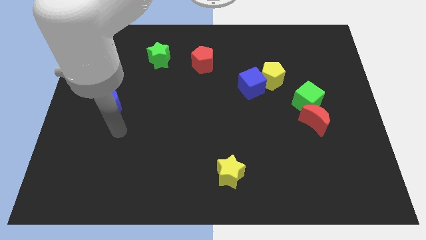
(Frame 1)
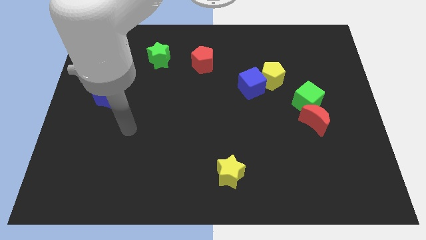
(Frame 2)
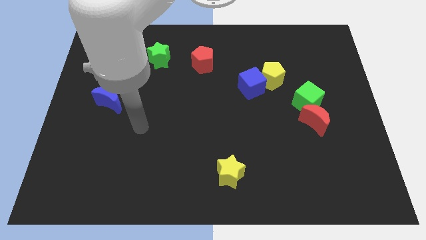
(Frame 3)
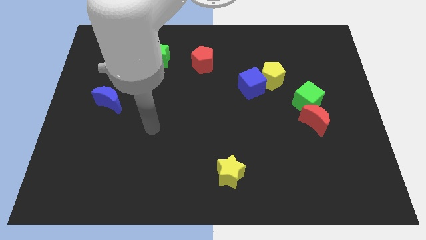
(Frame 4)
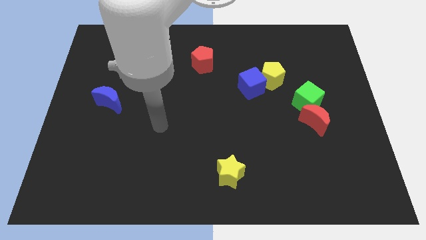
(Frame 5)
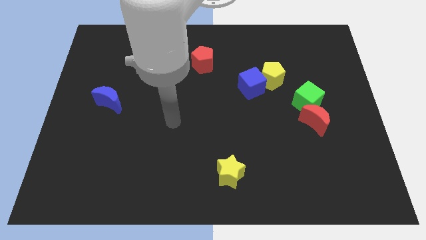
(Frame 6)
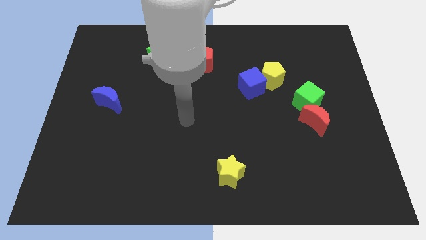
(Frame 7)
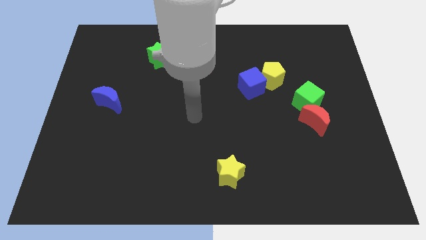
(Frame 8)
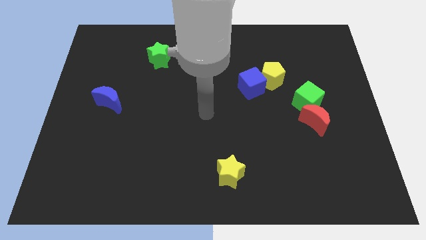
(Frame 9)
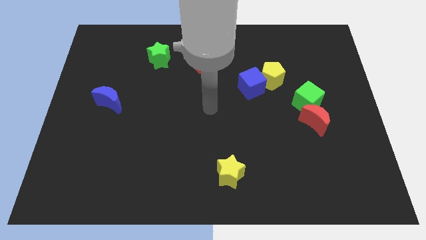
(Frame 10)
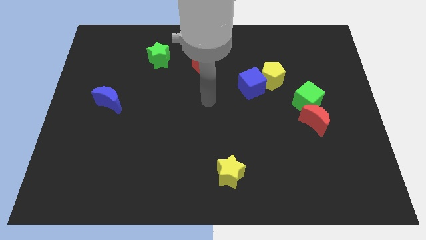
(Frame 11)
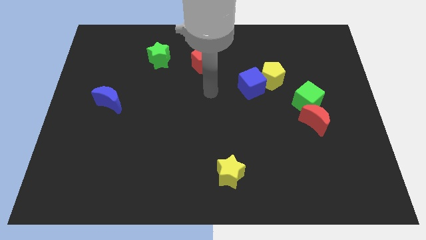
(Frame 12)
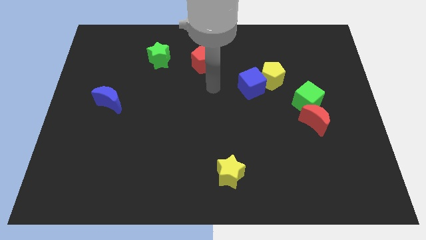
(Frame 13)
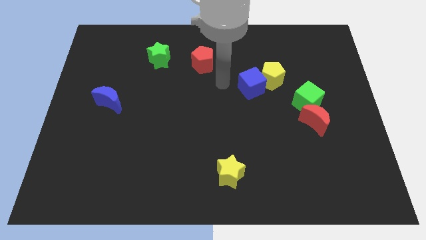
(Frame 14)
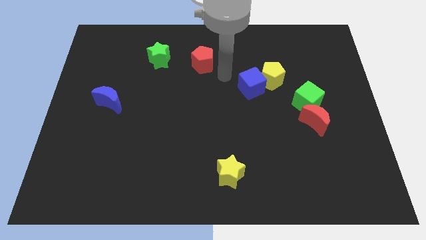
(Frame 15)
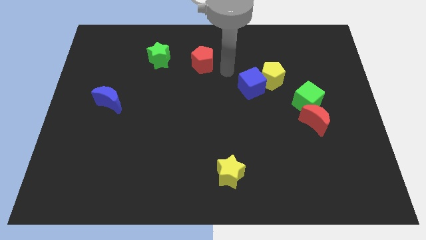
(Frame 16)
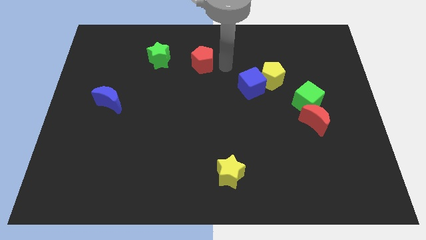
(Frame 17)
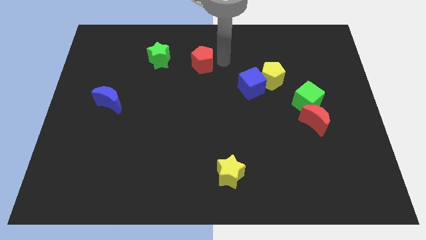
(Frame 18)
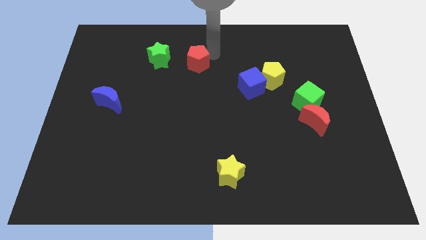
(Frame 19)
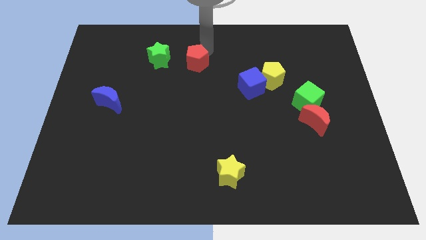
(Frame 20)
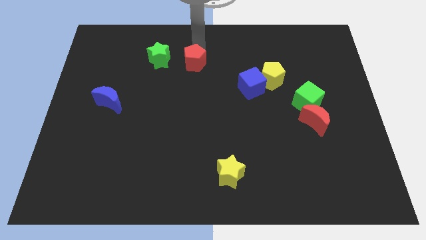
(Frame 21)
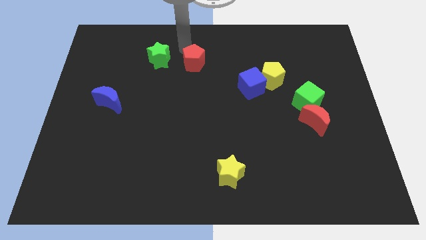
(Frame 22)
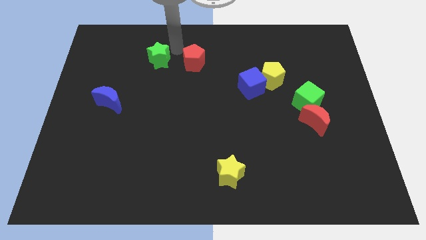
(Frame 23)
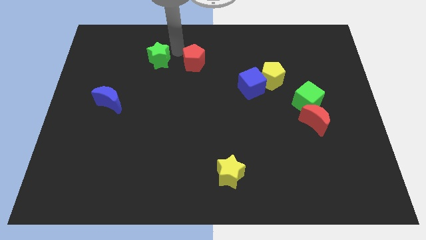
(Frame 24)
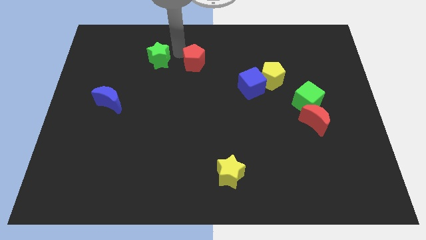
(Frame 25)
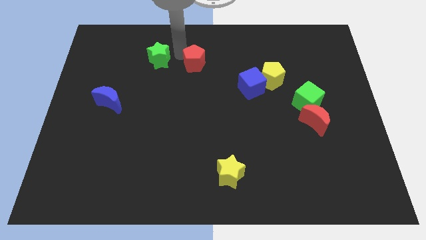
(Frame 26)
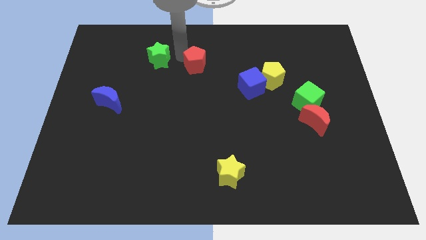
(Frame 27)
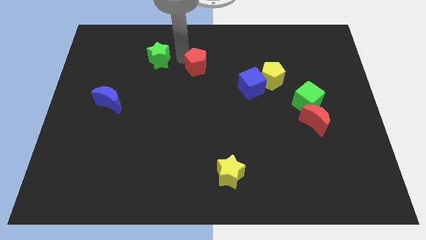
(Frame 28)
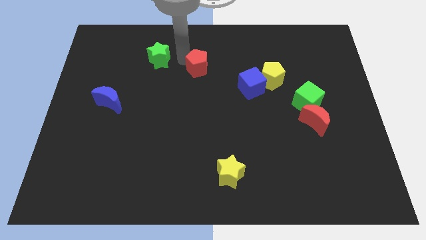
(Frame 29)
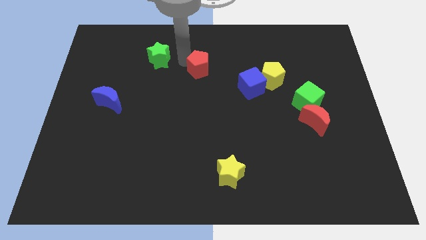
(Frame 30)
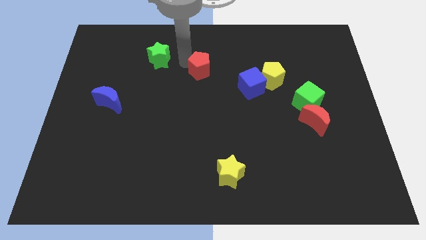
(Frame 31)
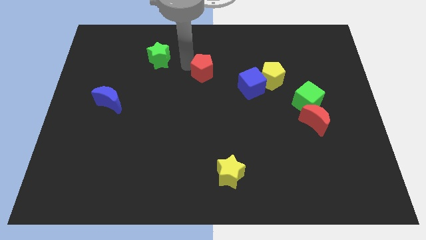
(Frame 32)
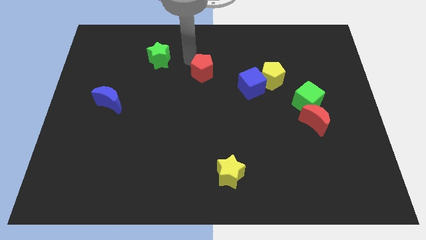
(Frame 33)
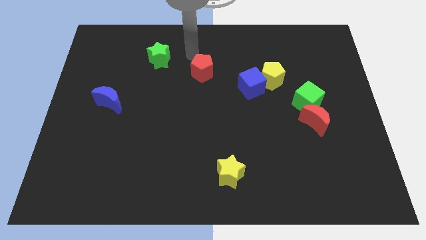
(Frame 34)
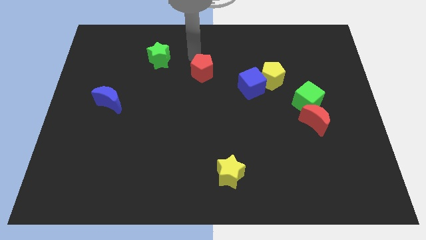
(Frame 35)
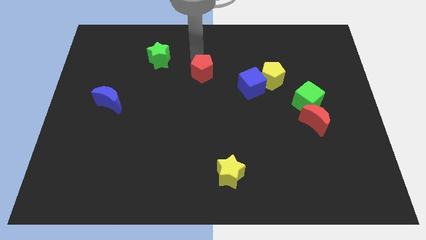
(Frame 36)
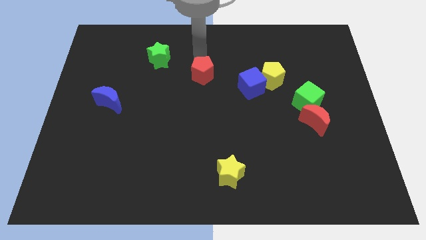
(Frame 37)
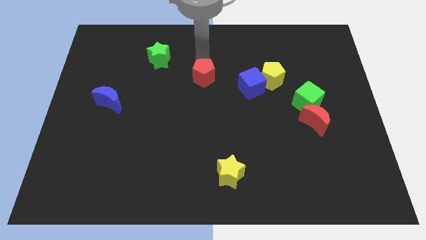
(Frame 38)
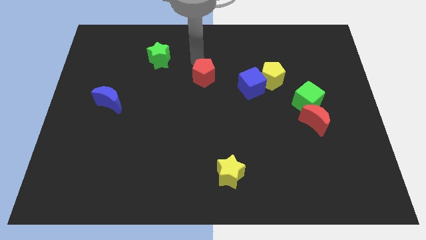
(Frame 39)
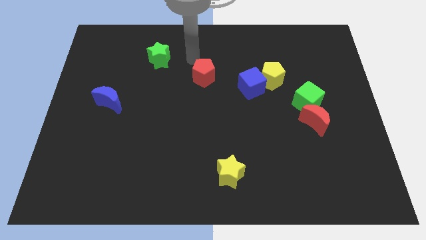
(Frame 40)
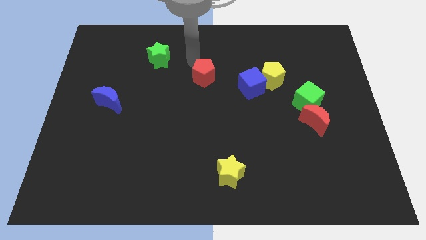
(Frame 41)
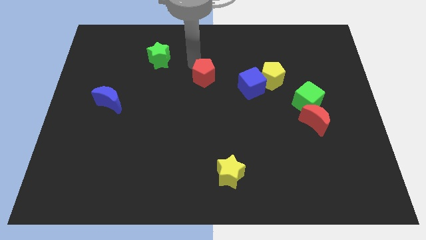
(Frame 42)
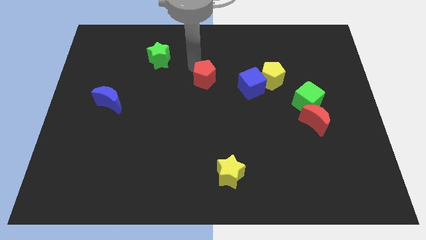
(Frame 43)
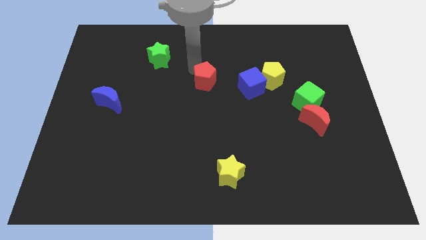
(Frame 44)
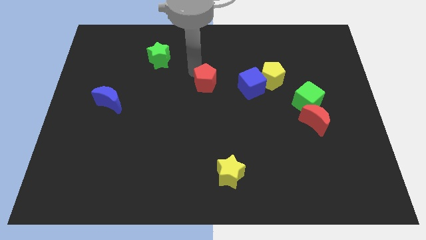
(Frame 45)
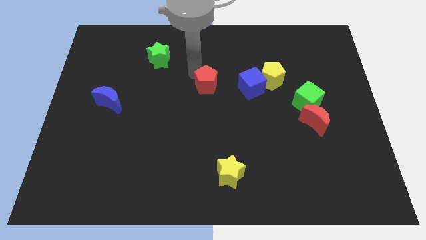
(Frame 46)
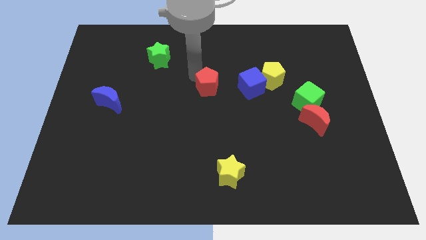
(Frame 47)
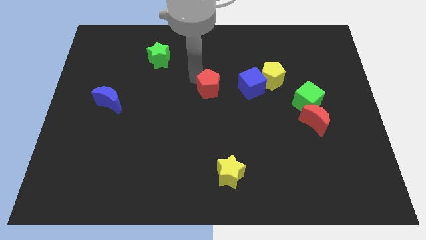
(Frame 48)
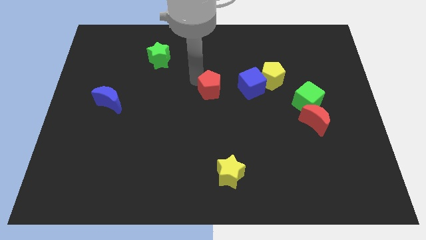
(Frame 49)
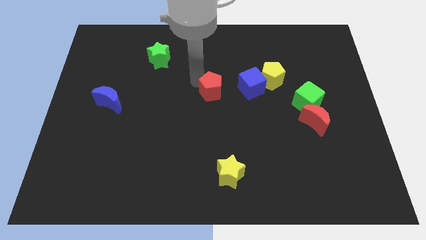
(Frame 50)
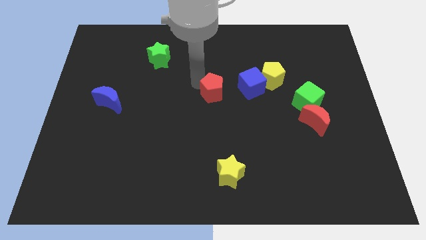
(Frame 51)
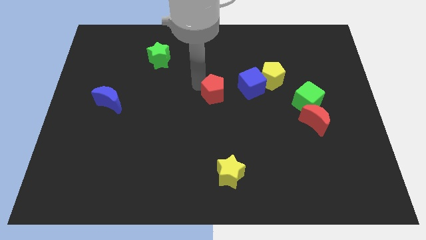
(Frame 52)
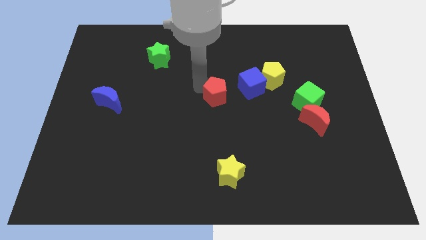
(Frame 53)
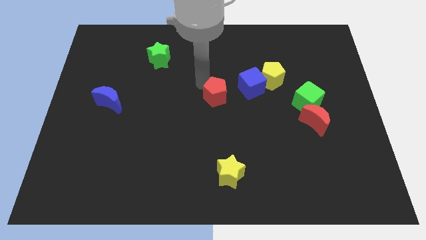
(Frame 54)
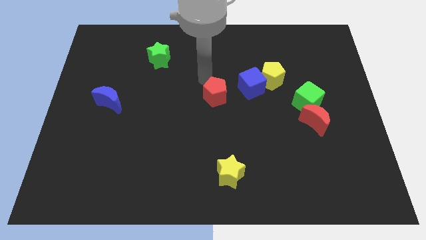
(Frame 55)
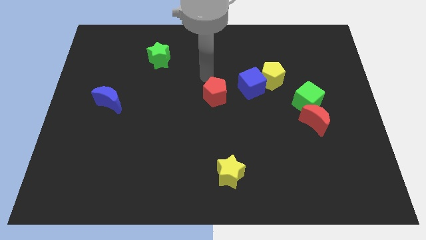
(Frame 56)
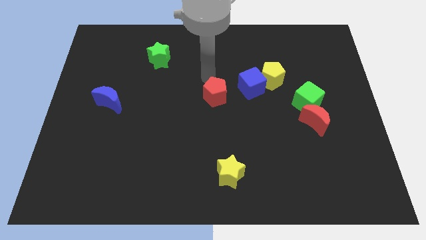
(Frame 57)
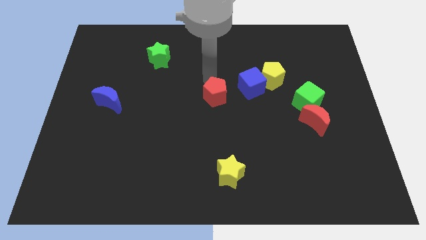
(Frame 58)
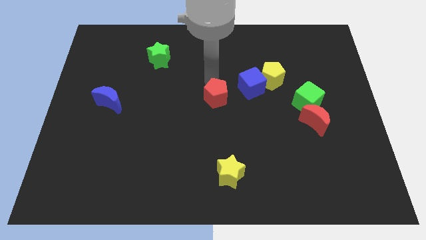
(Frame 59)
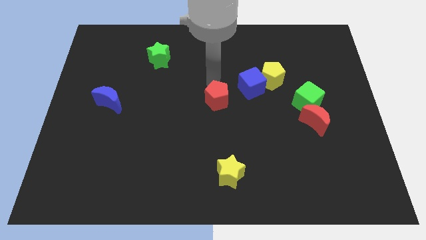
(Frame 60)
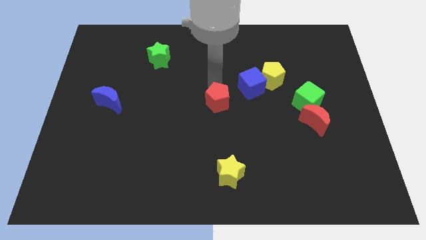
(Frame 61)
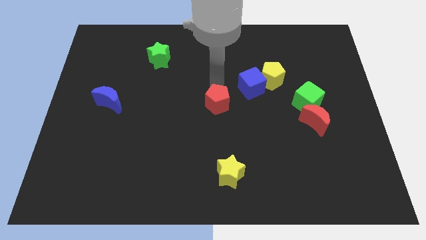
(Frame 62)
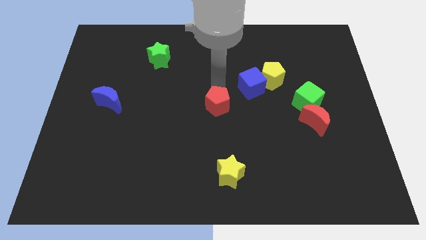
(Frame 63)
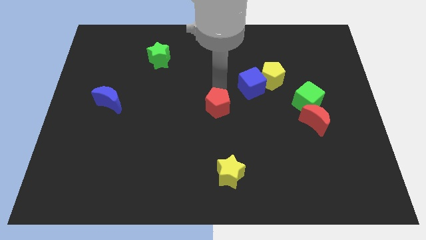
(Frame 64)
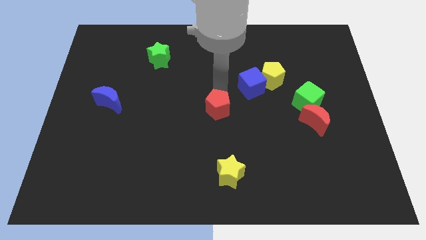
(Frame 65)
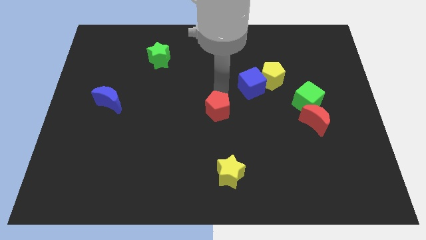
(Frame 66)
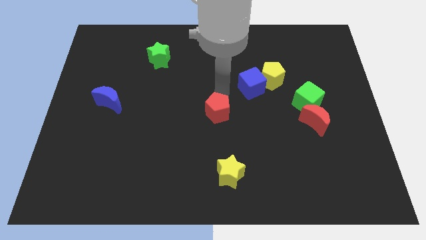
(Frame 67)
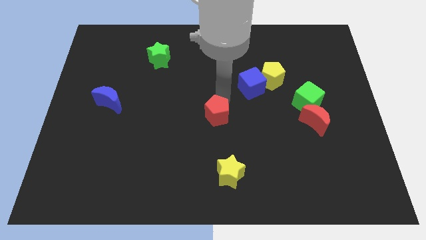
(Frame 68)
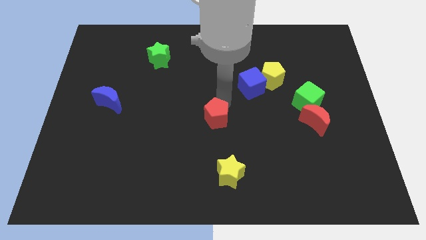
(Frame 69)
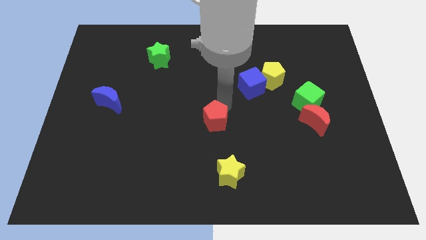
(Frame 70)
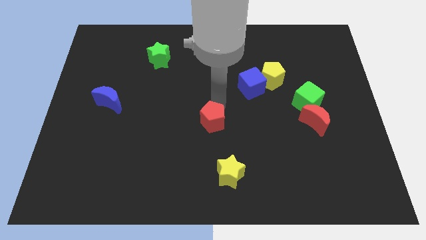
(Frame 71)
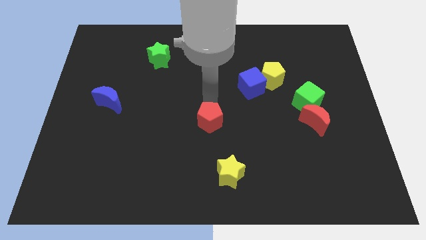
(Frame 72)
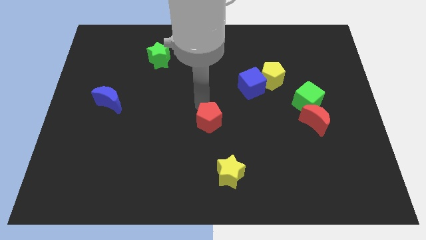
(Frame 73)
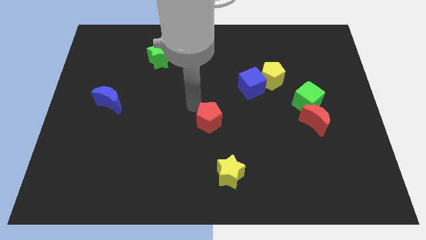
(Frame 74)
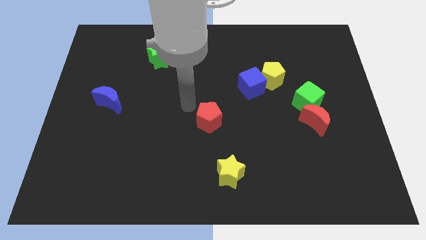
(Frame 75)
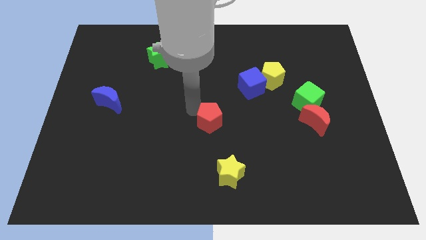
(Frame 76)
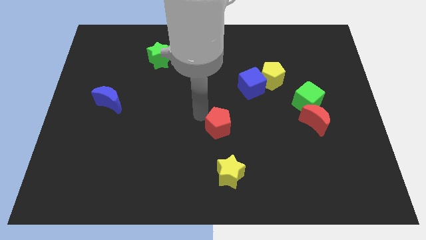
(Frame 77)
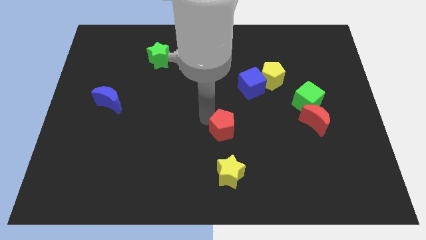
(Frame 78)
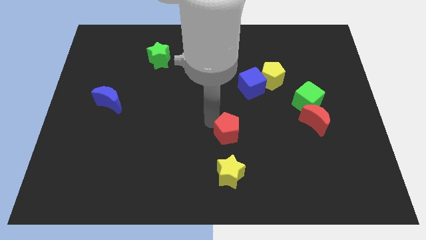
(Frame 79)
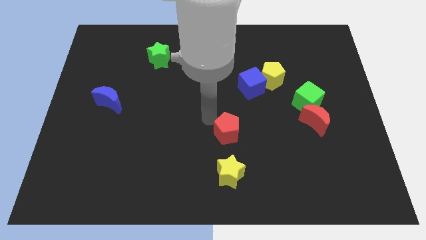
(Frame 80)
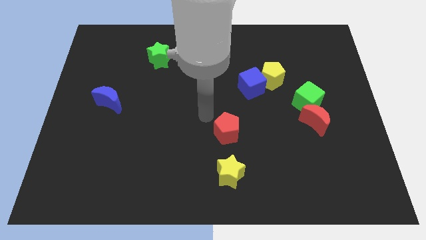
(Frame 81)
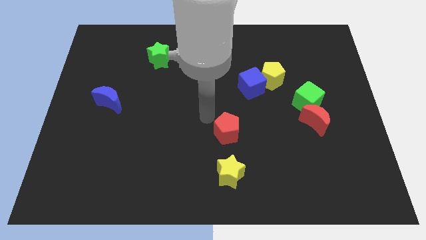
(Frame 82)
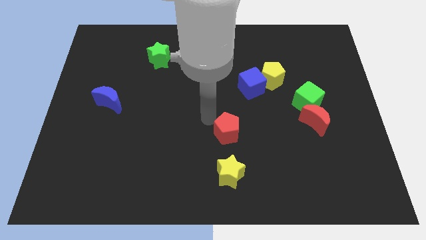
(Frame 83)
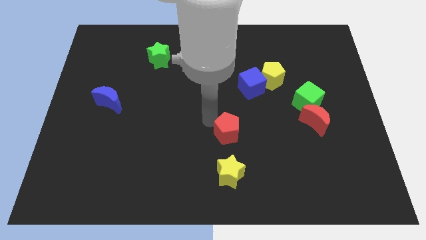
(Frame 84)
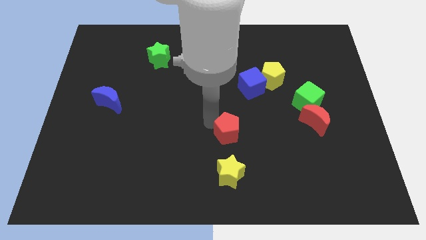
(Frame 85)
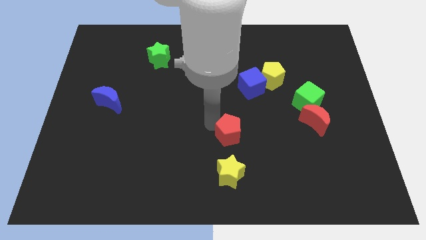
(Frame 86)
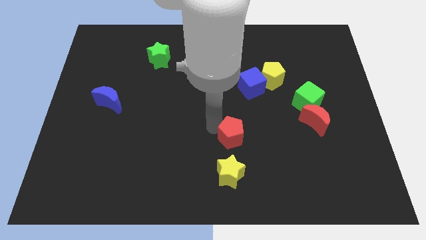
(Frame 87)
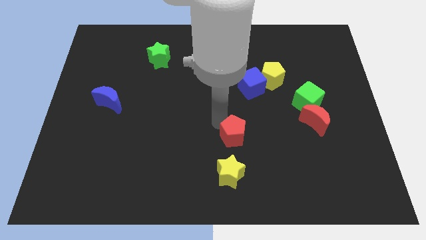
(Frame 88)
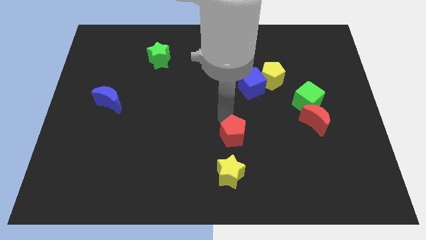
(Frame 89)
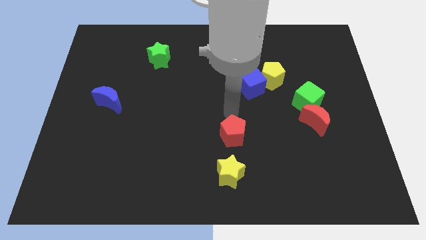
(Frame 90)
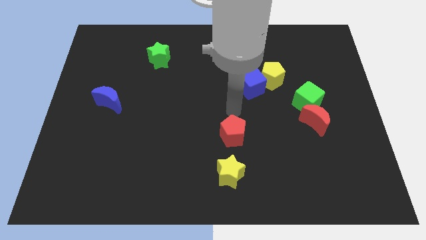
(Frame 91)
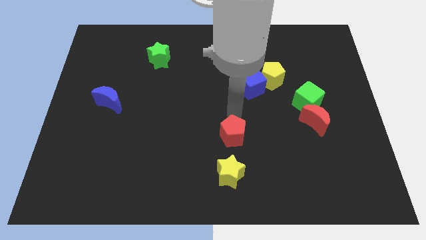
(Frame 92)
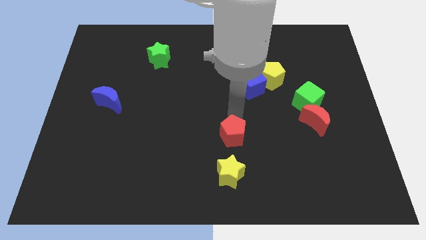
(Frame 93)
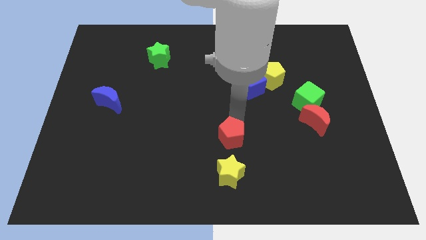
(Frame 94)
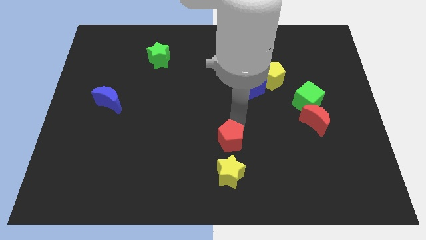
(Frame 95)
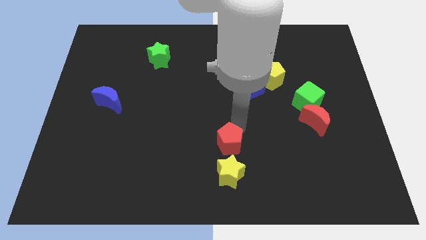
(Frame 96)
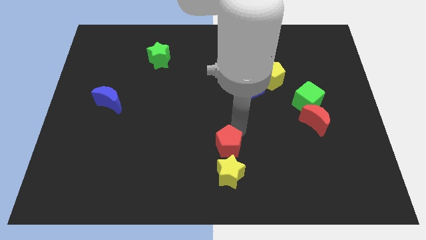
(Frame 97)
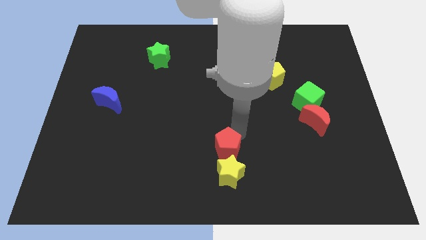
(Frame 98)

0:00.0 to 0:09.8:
put the red pentagon towards the yellow star
